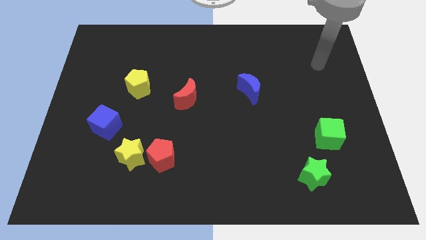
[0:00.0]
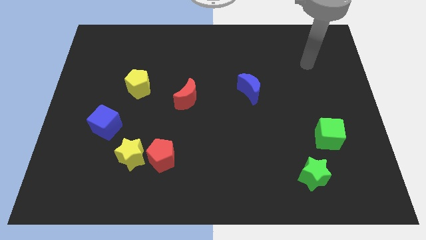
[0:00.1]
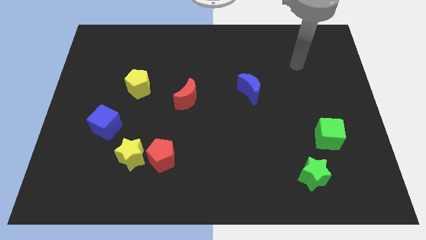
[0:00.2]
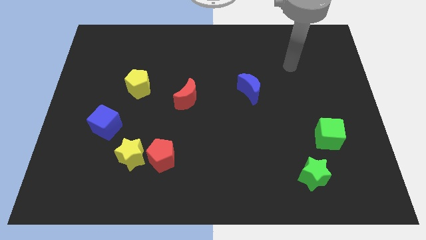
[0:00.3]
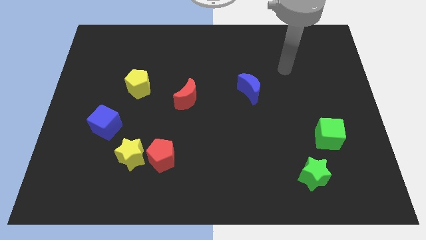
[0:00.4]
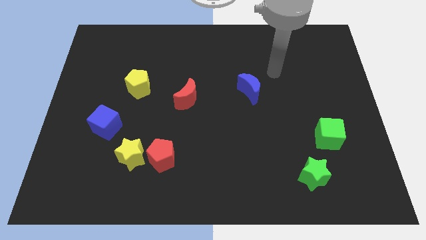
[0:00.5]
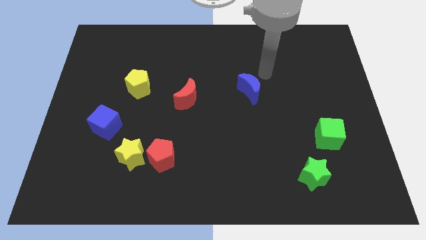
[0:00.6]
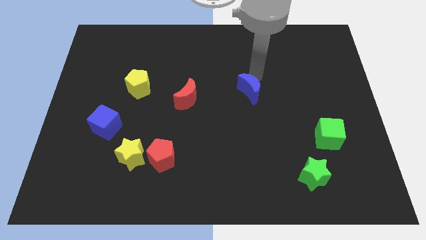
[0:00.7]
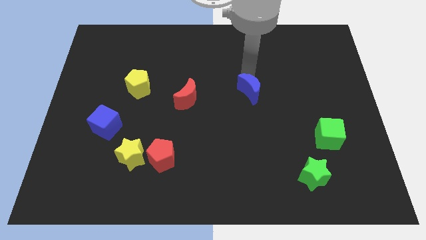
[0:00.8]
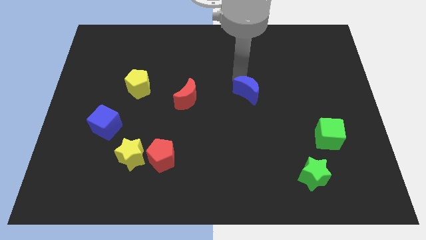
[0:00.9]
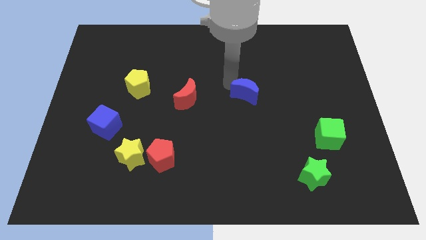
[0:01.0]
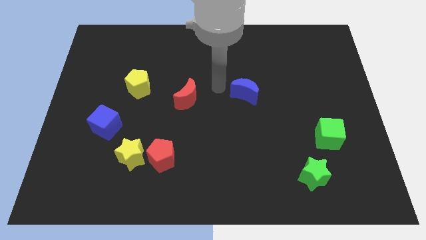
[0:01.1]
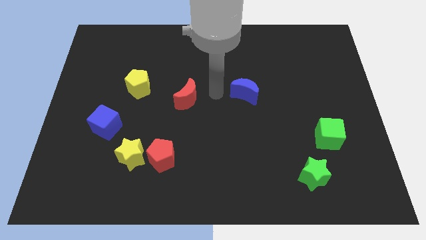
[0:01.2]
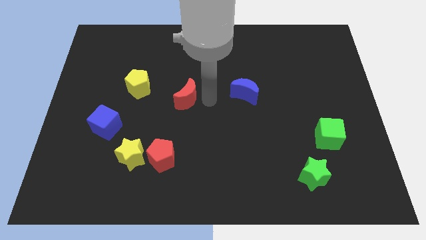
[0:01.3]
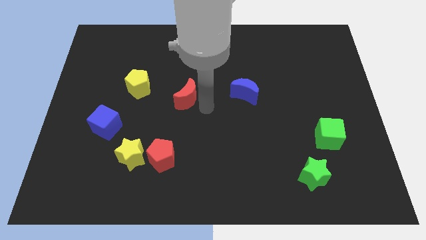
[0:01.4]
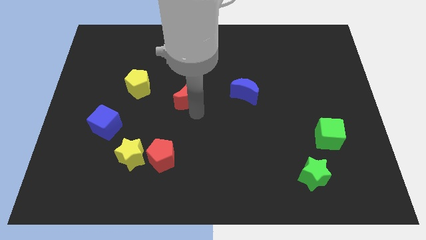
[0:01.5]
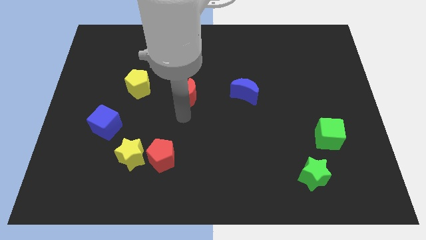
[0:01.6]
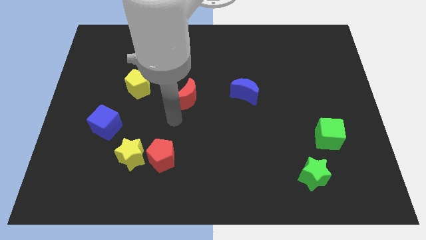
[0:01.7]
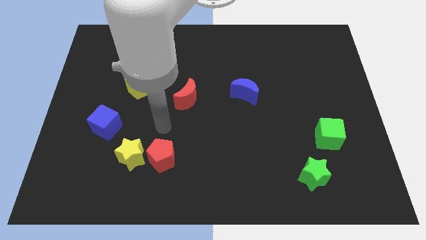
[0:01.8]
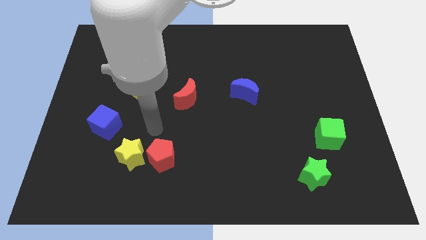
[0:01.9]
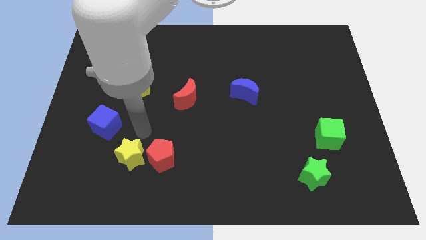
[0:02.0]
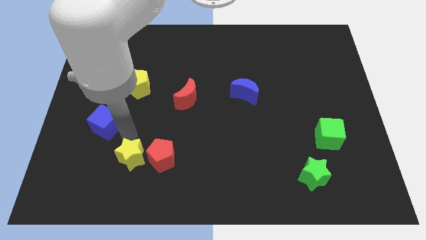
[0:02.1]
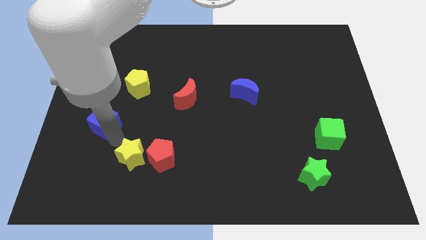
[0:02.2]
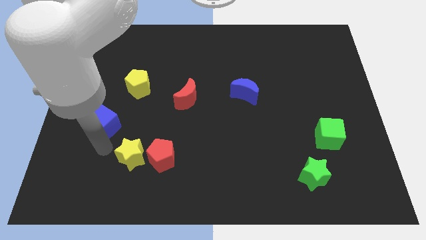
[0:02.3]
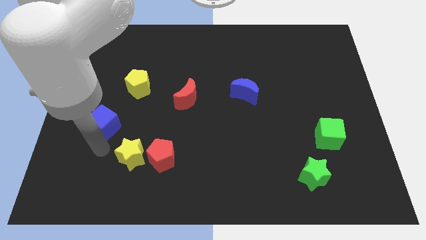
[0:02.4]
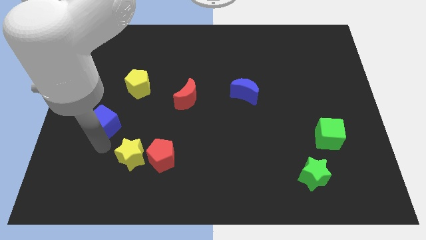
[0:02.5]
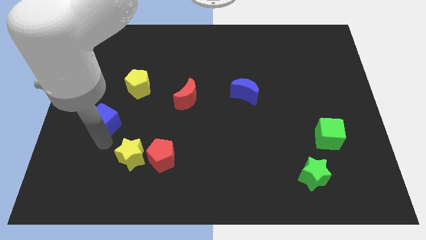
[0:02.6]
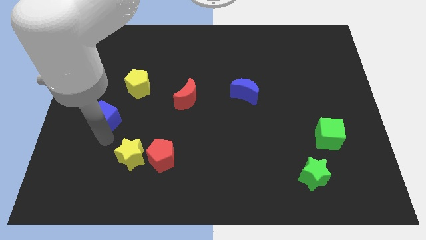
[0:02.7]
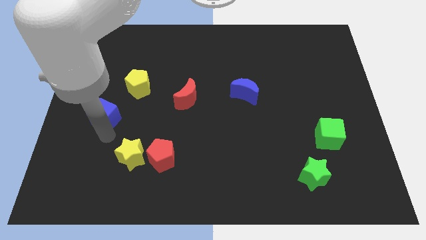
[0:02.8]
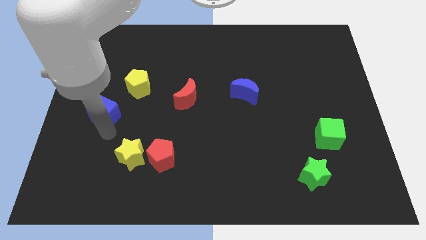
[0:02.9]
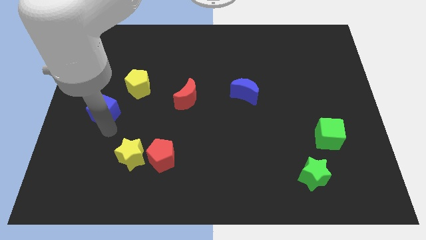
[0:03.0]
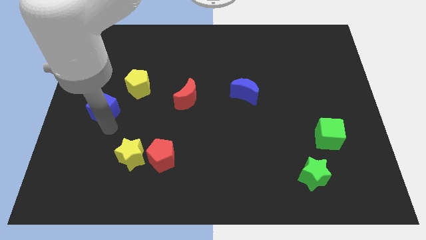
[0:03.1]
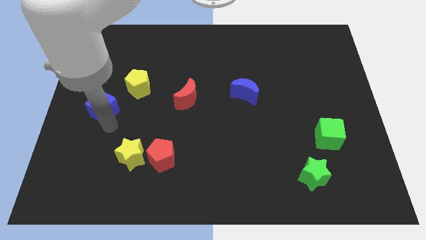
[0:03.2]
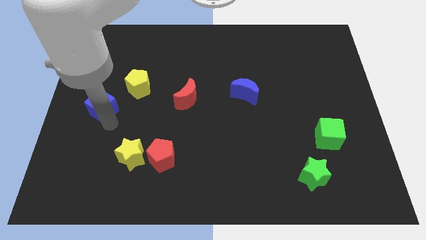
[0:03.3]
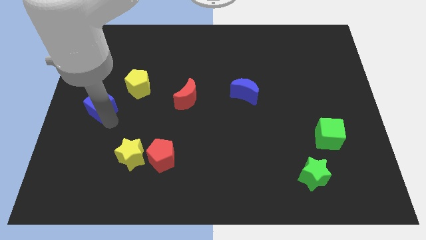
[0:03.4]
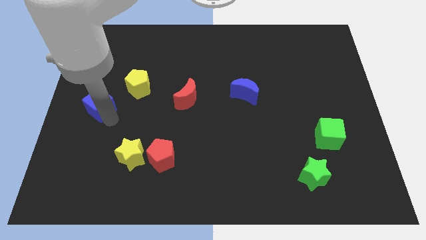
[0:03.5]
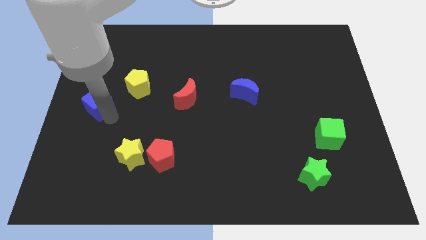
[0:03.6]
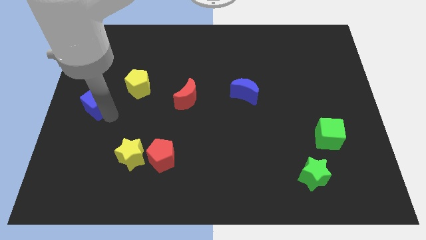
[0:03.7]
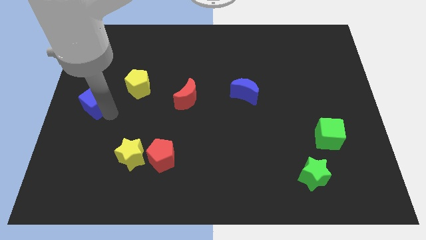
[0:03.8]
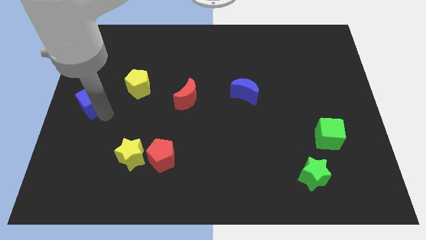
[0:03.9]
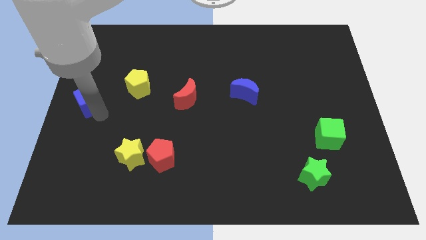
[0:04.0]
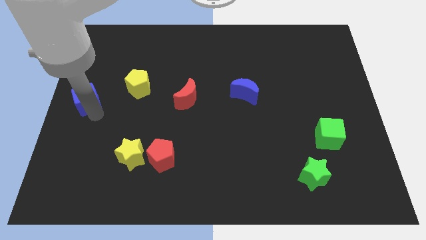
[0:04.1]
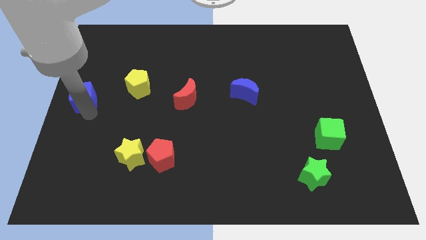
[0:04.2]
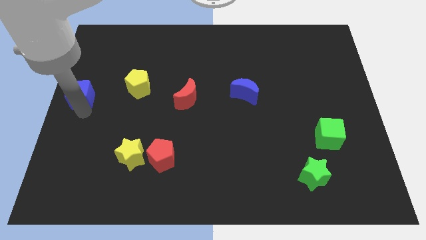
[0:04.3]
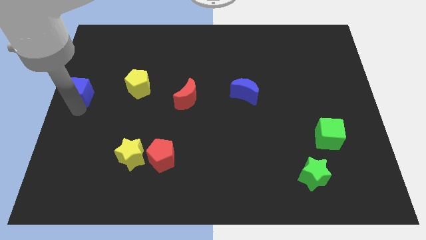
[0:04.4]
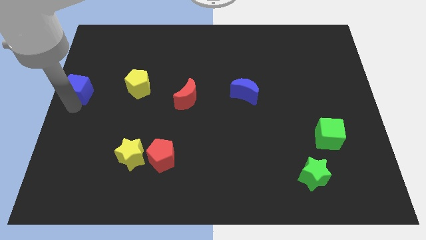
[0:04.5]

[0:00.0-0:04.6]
move the blue cube a little bit upwards

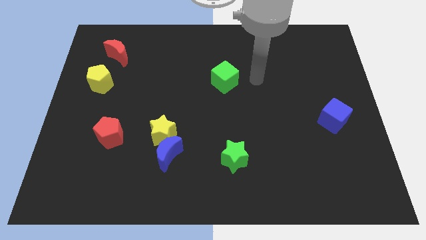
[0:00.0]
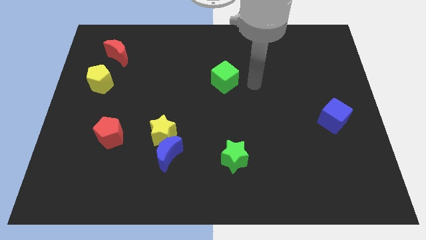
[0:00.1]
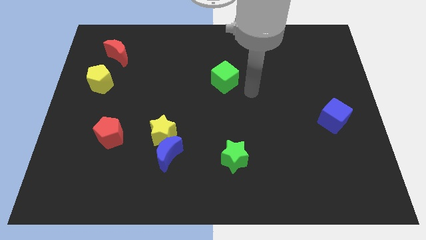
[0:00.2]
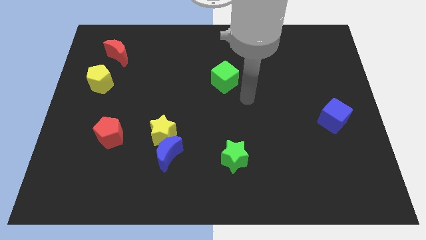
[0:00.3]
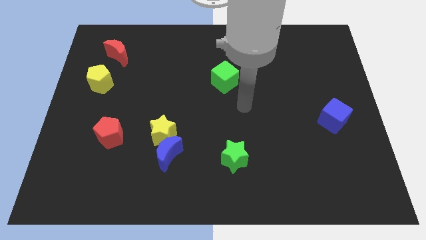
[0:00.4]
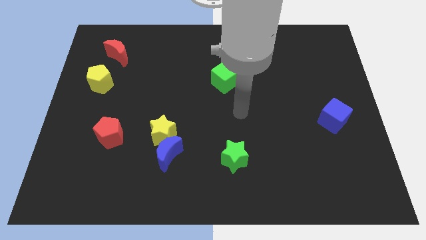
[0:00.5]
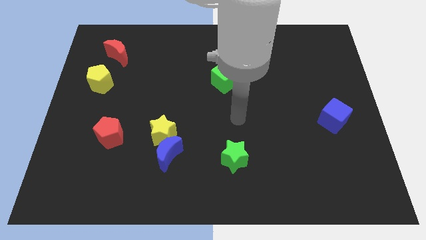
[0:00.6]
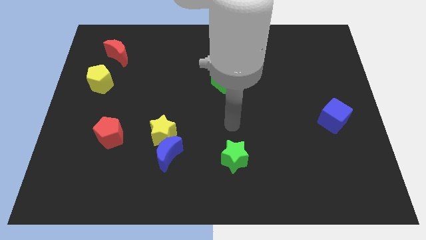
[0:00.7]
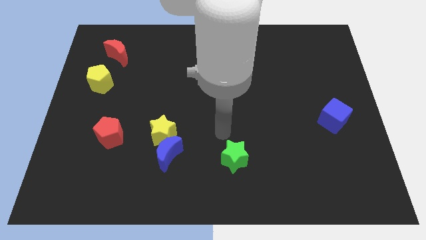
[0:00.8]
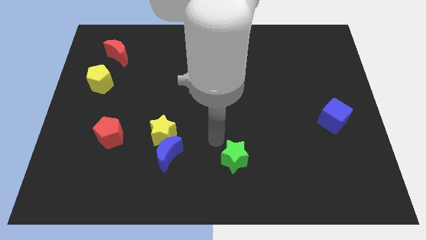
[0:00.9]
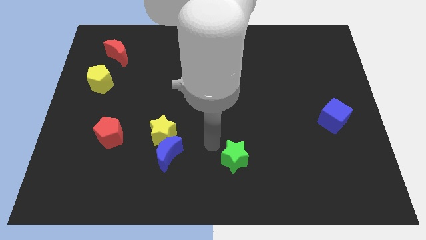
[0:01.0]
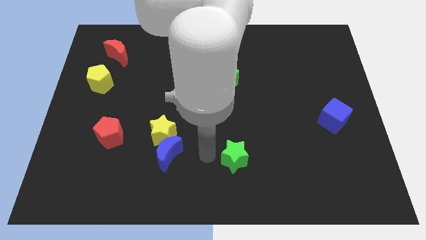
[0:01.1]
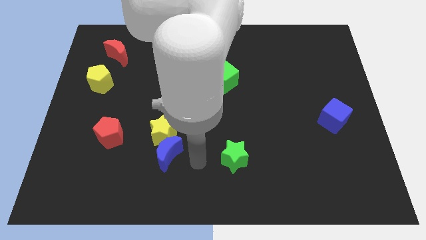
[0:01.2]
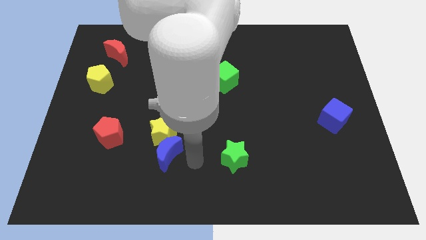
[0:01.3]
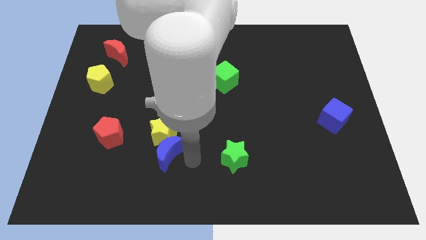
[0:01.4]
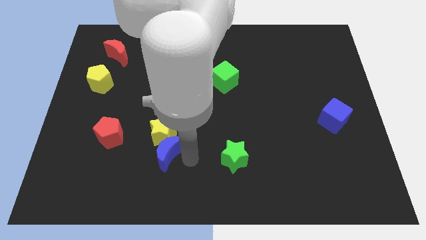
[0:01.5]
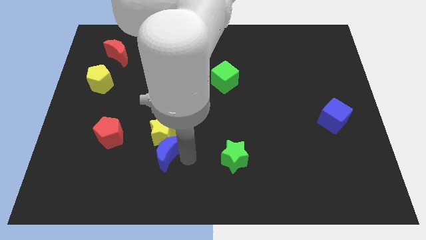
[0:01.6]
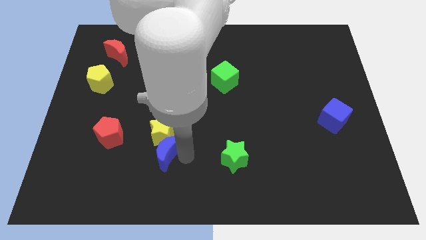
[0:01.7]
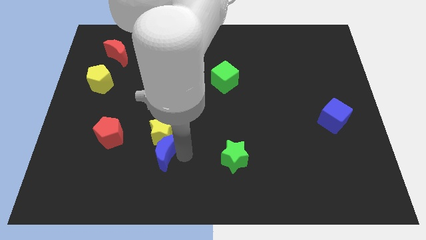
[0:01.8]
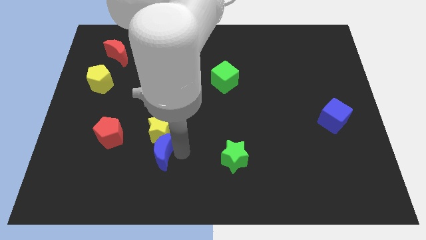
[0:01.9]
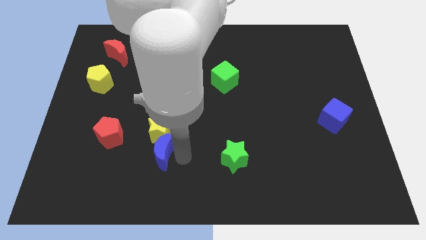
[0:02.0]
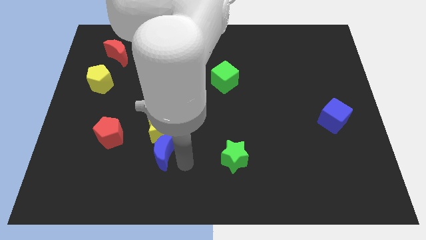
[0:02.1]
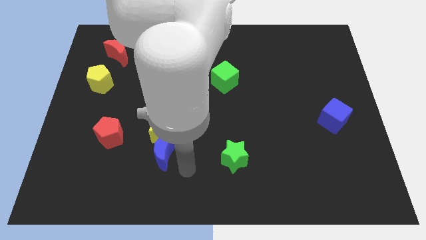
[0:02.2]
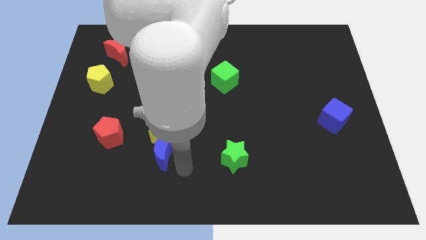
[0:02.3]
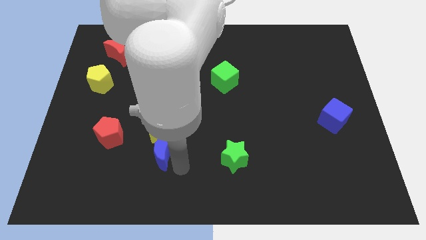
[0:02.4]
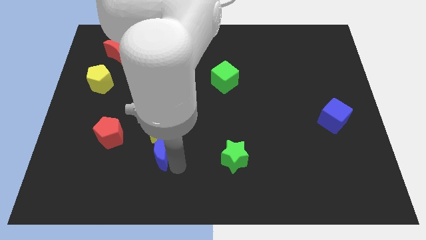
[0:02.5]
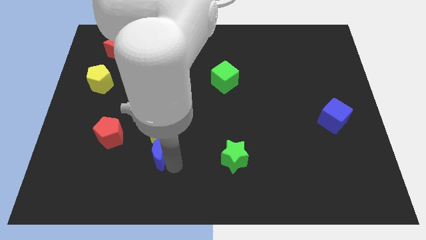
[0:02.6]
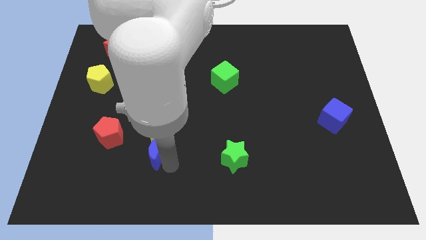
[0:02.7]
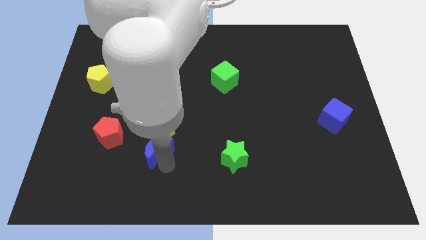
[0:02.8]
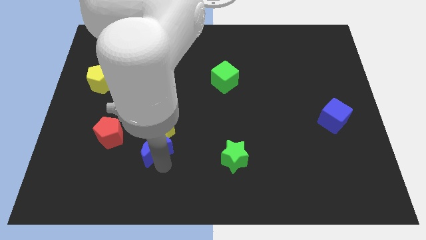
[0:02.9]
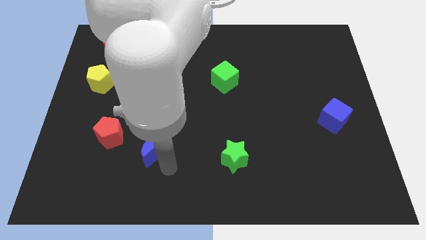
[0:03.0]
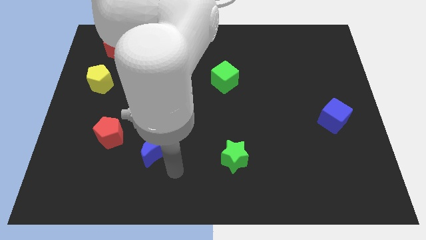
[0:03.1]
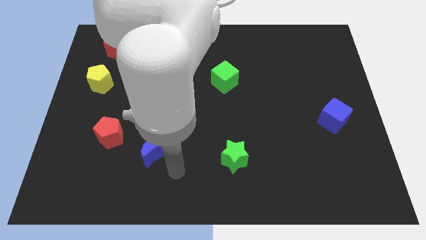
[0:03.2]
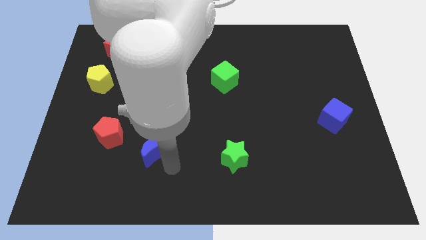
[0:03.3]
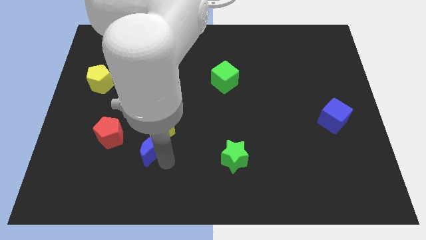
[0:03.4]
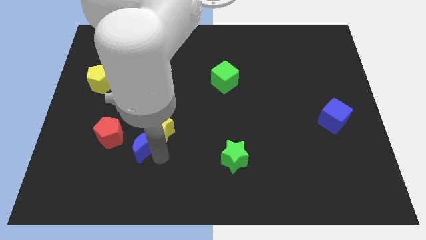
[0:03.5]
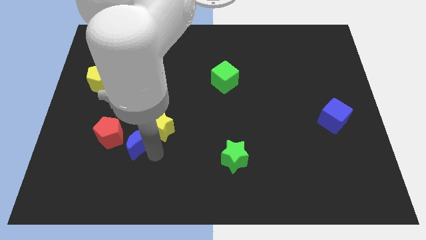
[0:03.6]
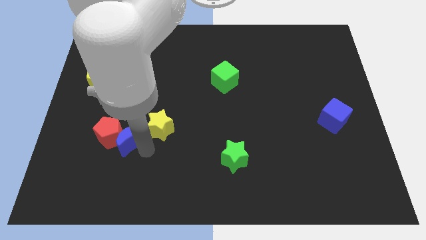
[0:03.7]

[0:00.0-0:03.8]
slide the blue moon up and to the left somewhat
